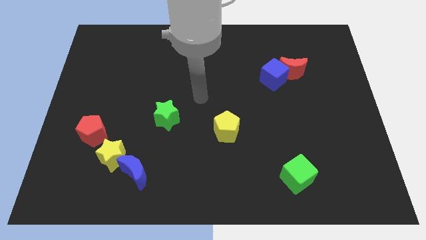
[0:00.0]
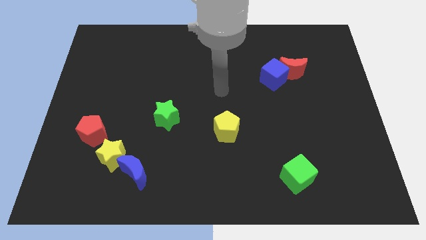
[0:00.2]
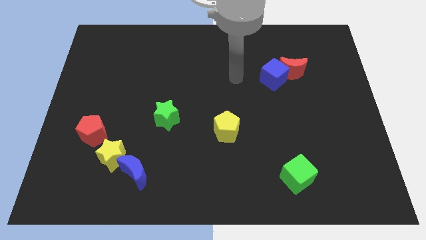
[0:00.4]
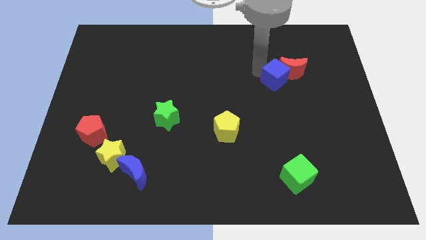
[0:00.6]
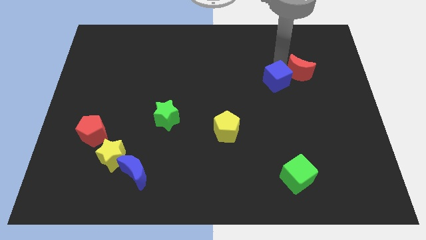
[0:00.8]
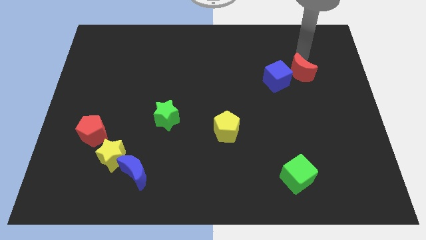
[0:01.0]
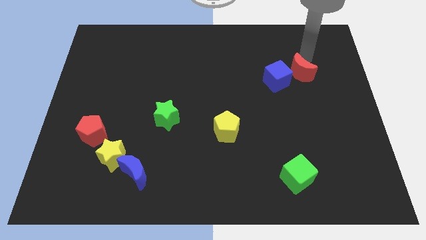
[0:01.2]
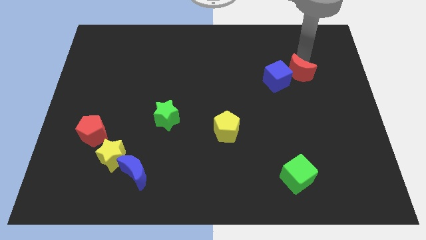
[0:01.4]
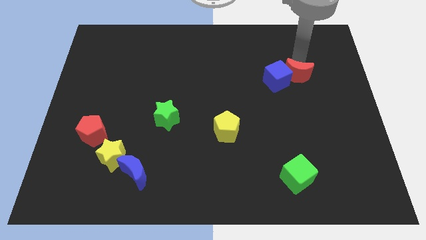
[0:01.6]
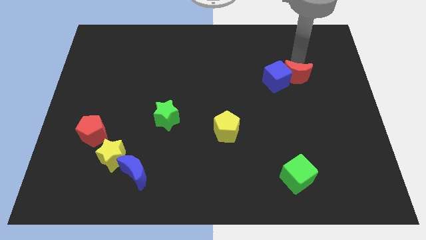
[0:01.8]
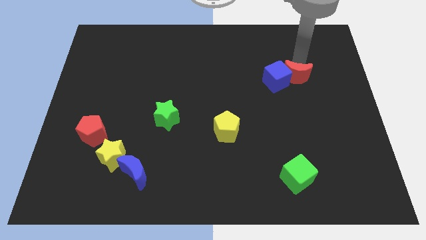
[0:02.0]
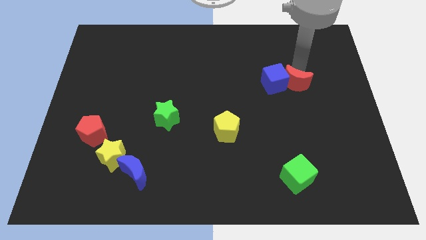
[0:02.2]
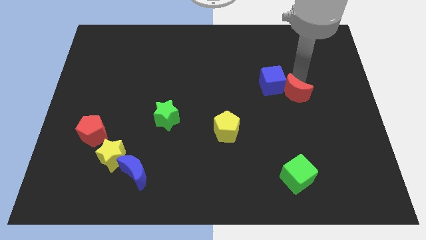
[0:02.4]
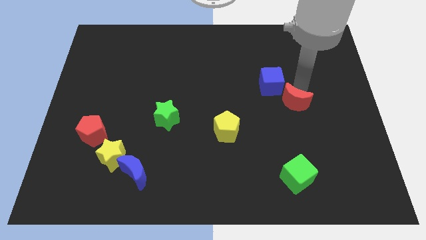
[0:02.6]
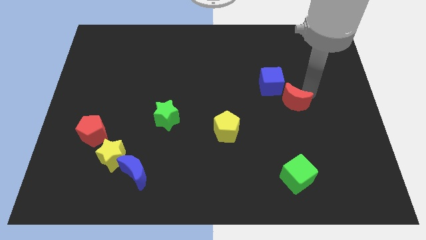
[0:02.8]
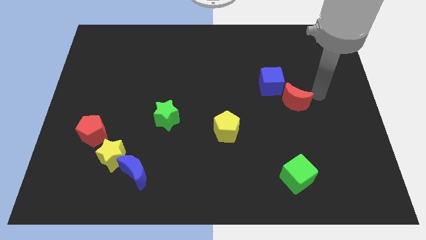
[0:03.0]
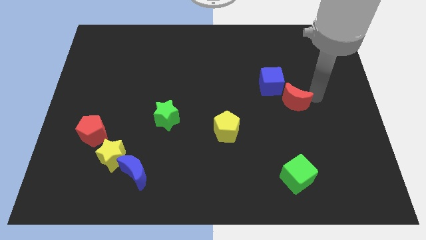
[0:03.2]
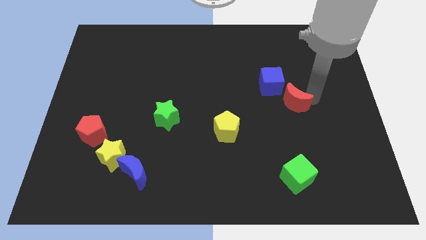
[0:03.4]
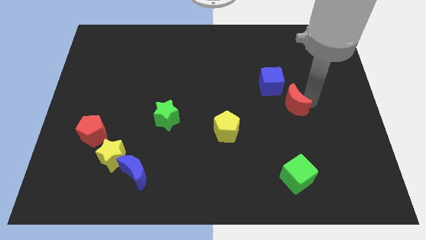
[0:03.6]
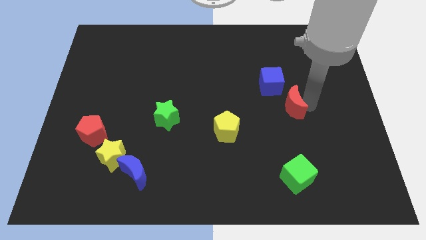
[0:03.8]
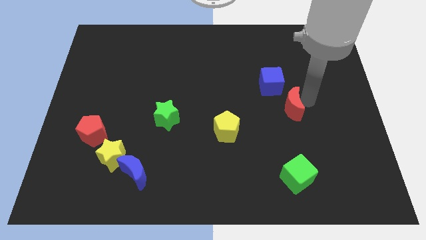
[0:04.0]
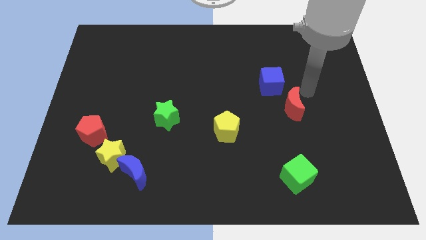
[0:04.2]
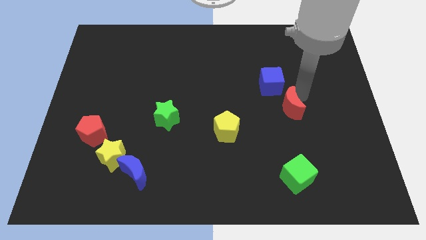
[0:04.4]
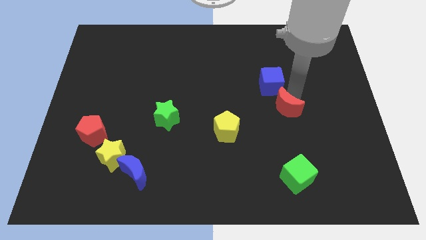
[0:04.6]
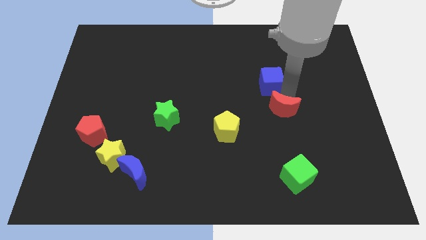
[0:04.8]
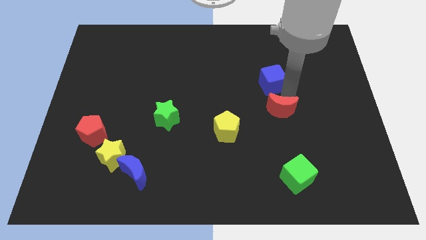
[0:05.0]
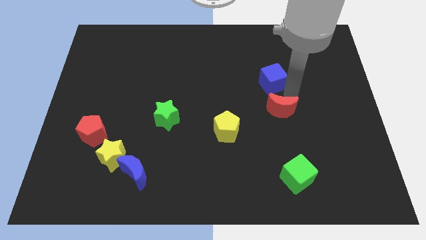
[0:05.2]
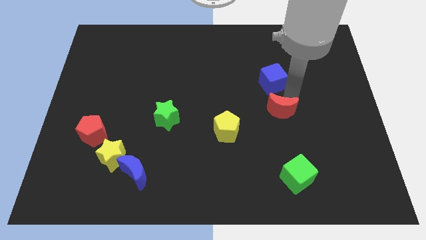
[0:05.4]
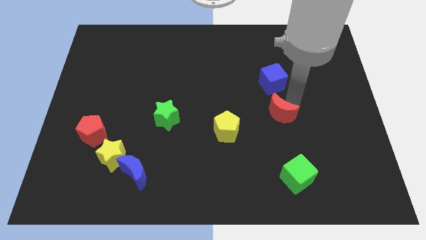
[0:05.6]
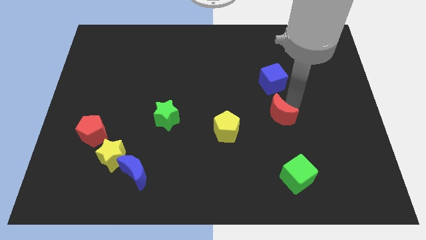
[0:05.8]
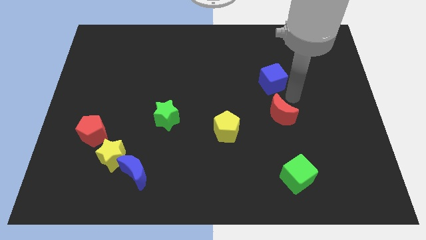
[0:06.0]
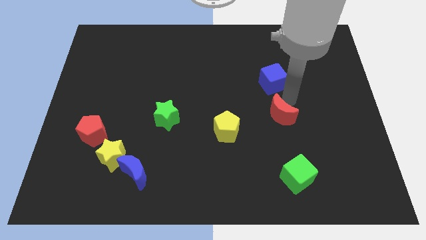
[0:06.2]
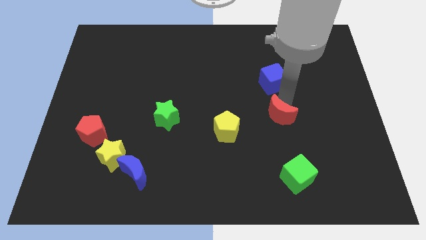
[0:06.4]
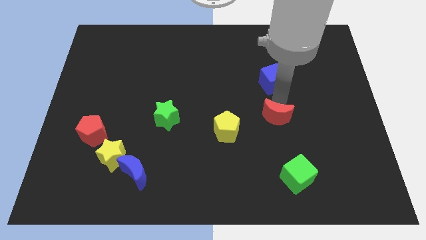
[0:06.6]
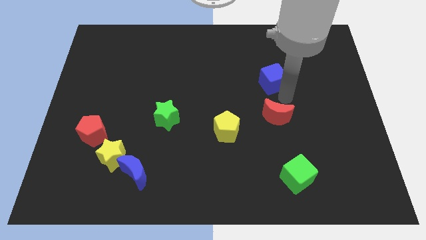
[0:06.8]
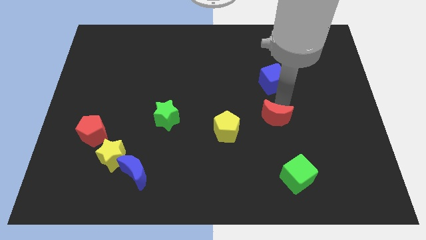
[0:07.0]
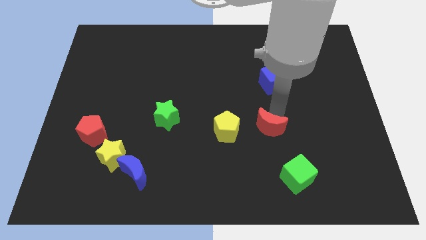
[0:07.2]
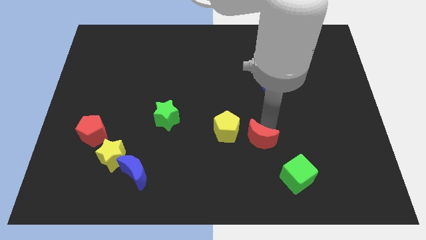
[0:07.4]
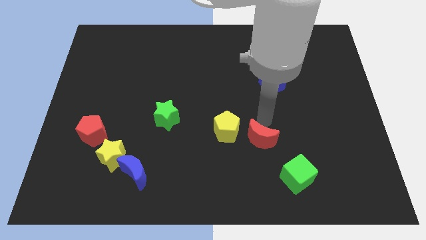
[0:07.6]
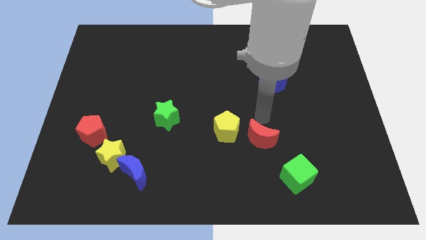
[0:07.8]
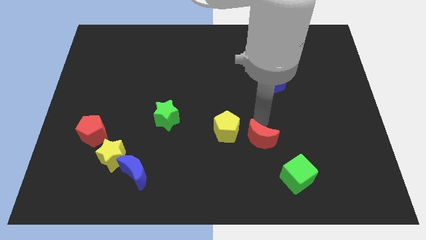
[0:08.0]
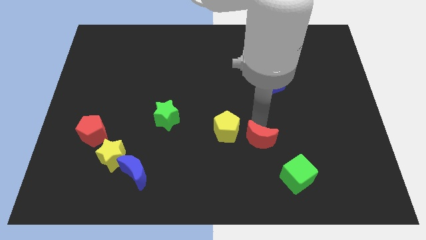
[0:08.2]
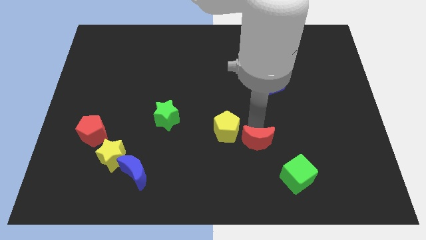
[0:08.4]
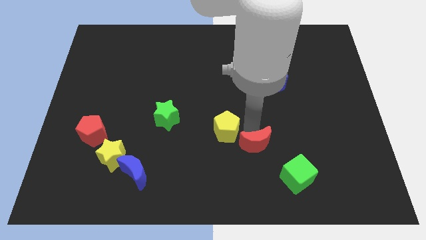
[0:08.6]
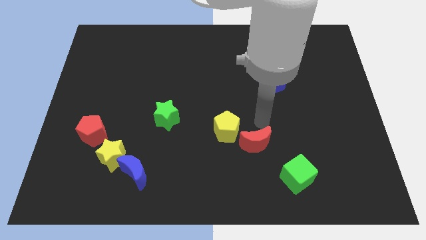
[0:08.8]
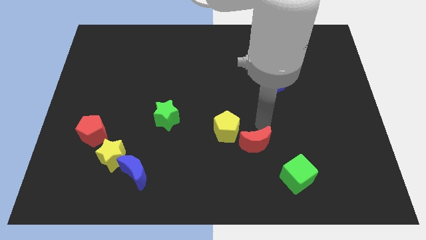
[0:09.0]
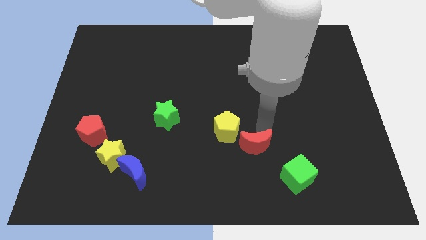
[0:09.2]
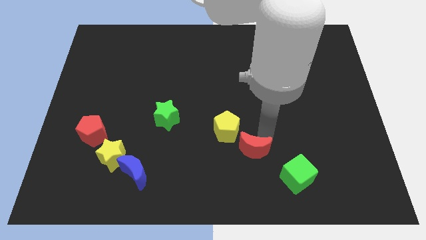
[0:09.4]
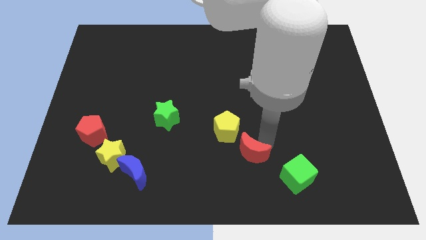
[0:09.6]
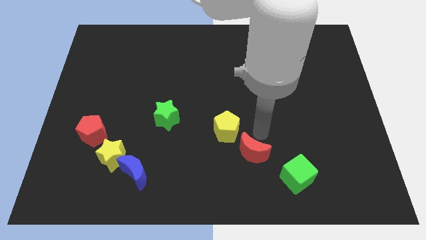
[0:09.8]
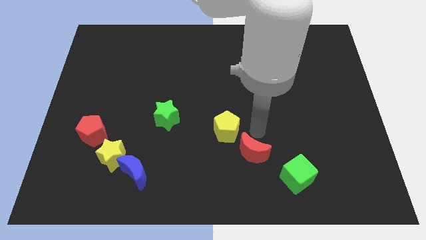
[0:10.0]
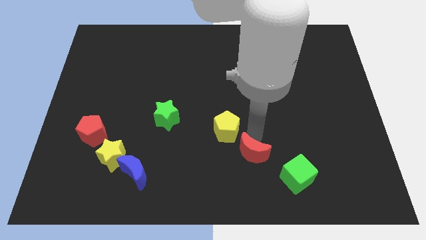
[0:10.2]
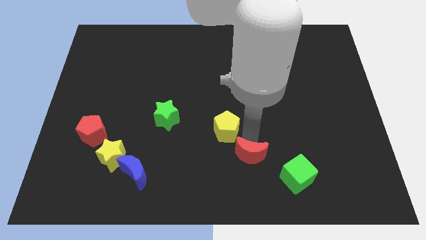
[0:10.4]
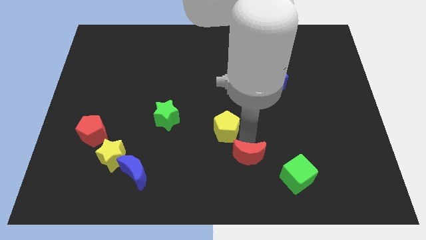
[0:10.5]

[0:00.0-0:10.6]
put the red moon just left of the green cube

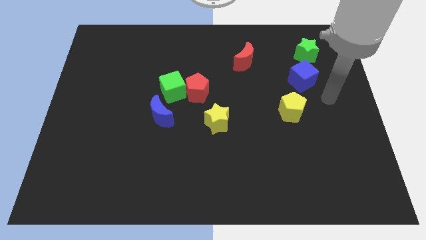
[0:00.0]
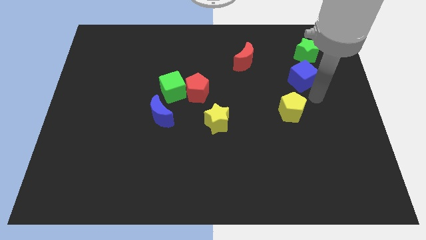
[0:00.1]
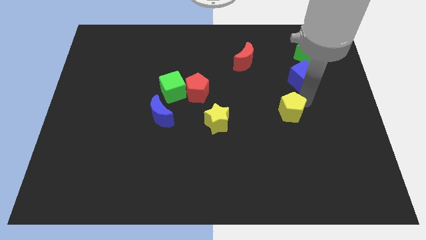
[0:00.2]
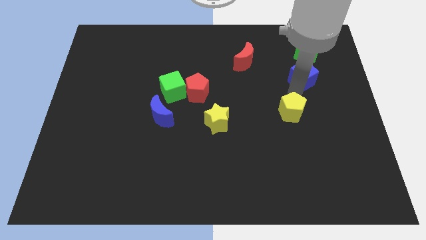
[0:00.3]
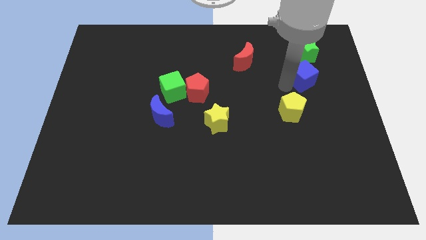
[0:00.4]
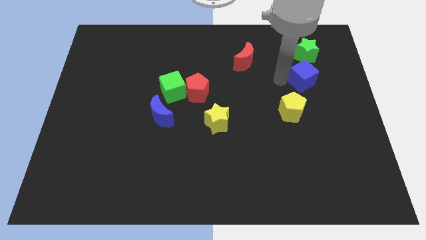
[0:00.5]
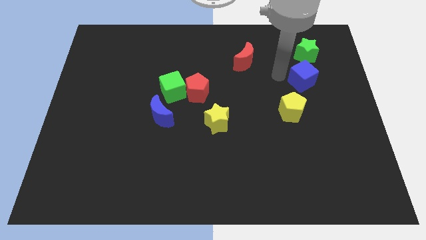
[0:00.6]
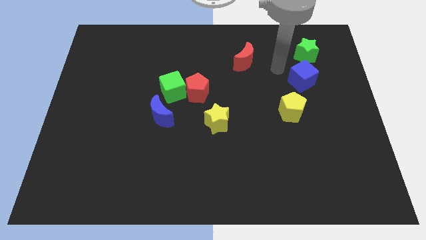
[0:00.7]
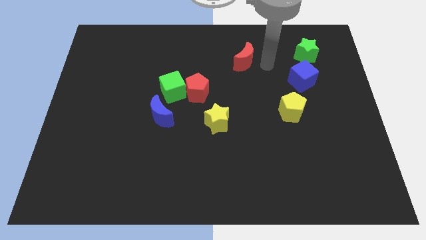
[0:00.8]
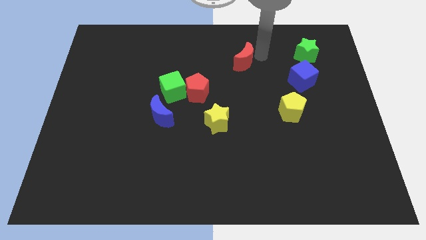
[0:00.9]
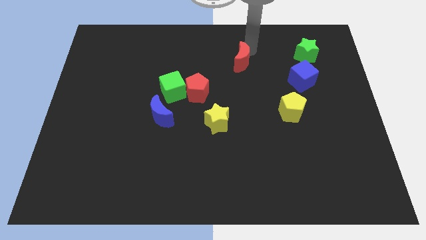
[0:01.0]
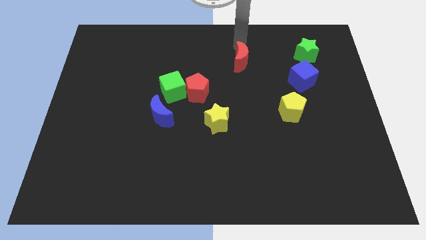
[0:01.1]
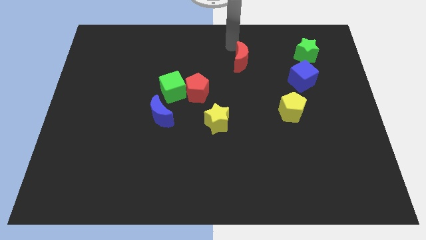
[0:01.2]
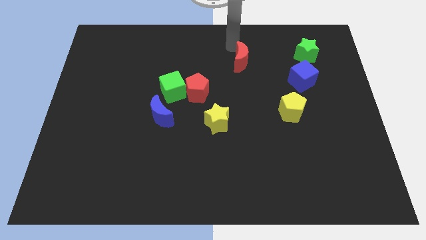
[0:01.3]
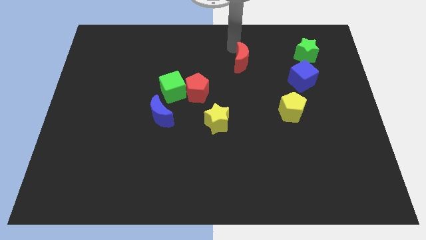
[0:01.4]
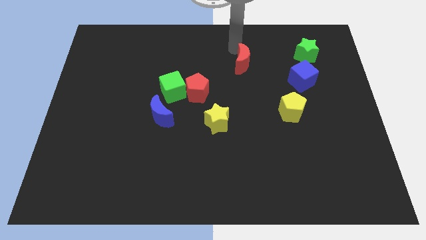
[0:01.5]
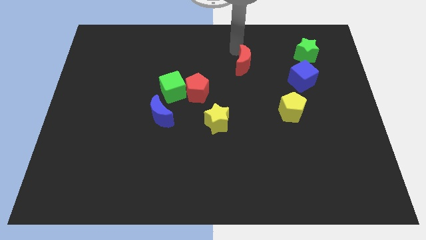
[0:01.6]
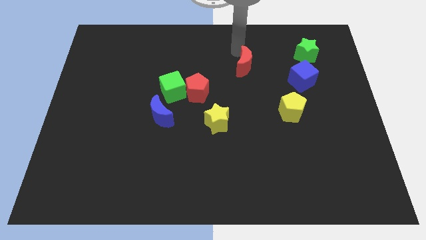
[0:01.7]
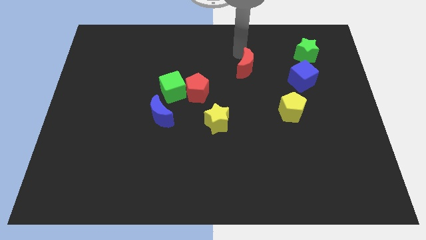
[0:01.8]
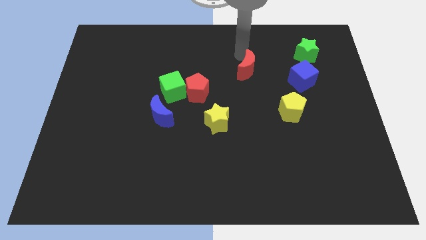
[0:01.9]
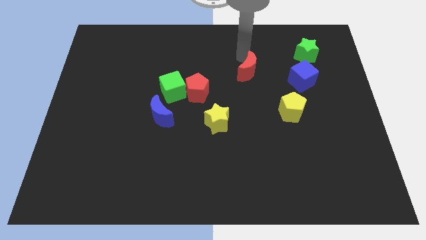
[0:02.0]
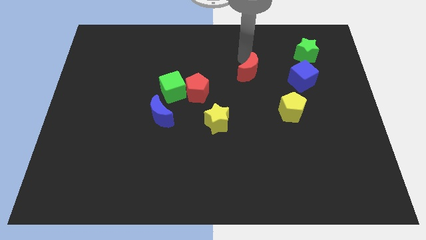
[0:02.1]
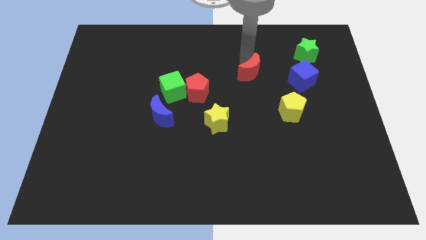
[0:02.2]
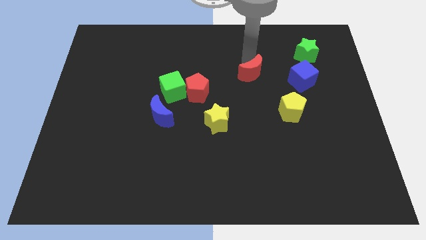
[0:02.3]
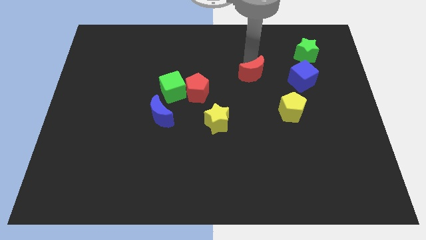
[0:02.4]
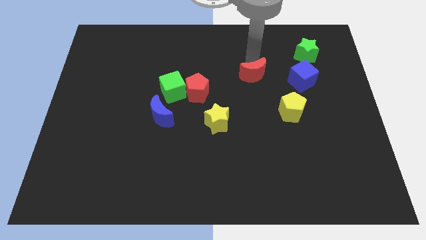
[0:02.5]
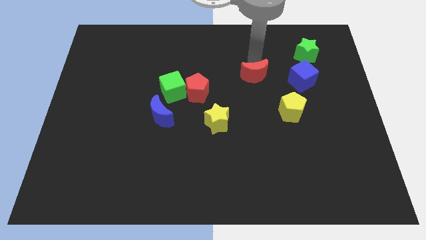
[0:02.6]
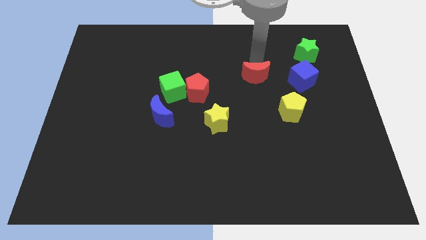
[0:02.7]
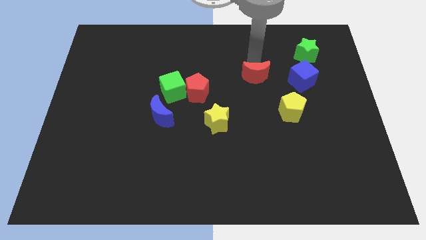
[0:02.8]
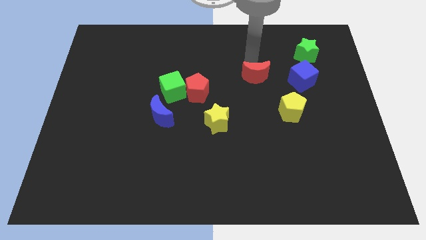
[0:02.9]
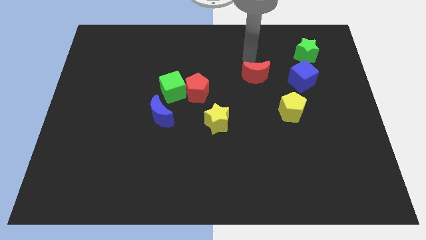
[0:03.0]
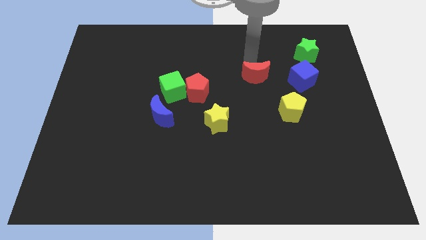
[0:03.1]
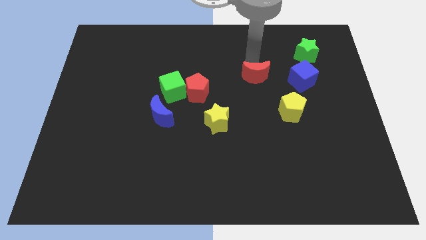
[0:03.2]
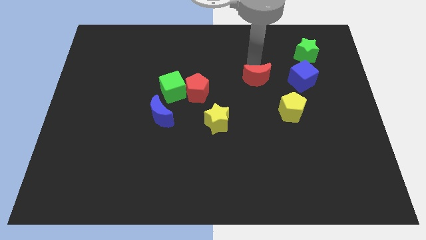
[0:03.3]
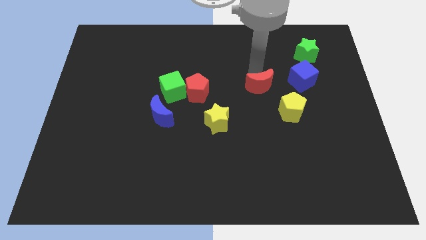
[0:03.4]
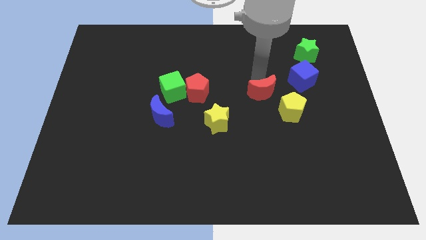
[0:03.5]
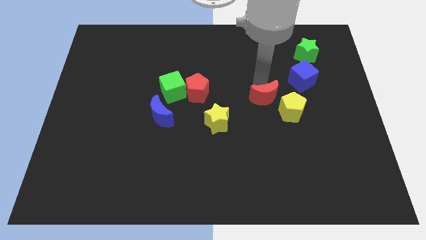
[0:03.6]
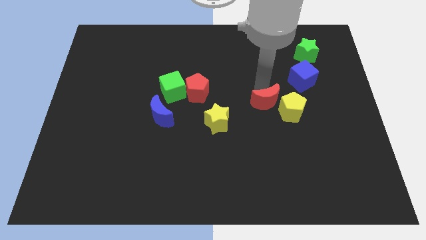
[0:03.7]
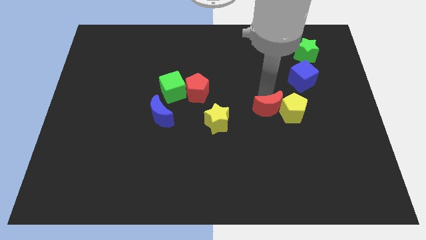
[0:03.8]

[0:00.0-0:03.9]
put the red moon to the bottom left side of the yellow pentagon
